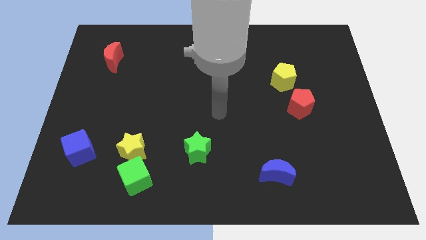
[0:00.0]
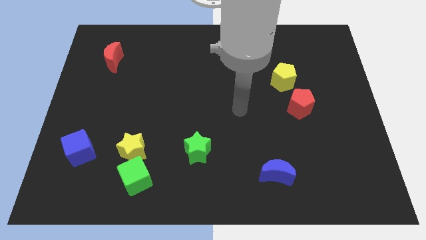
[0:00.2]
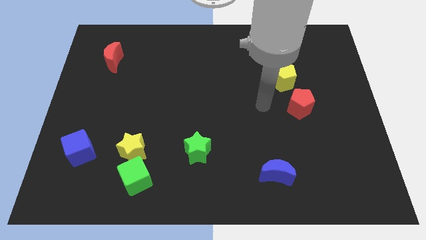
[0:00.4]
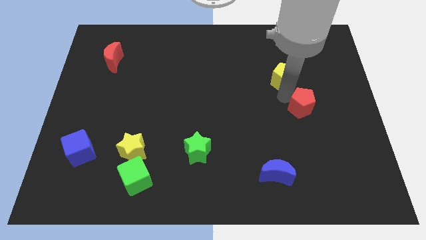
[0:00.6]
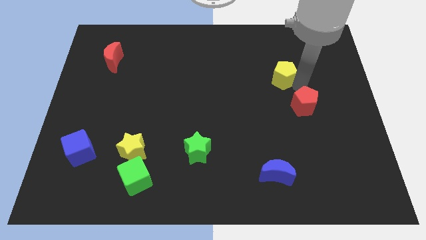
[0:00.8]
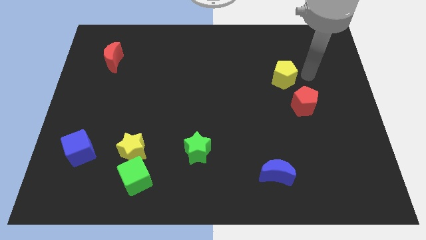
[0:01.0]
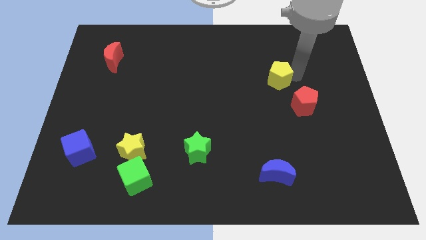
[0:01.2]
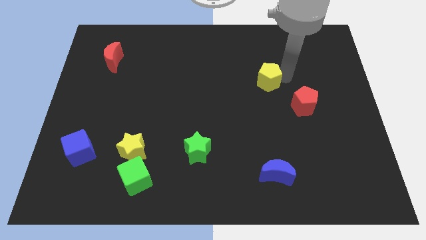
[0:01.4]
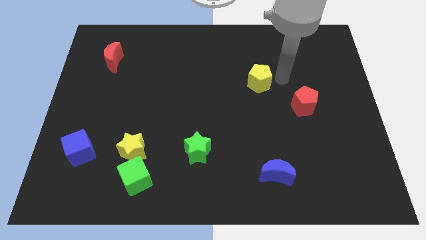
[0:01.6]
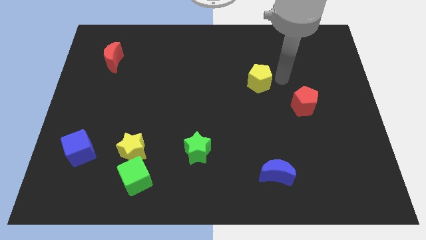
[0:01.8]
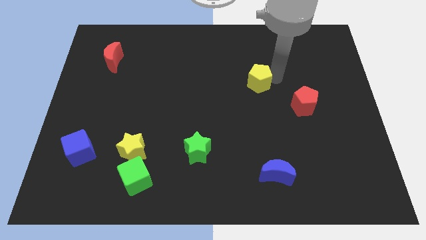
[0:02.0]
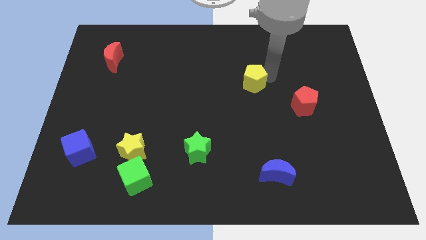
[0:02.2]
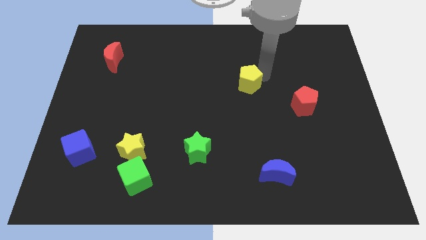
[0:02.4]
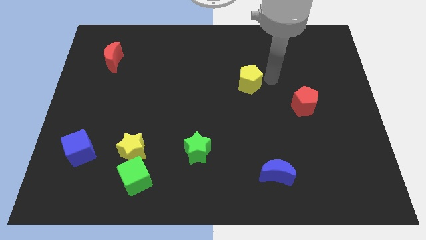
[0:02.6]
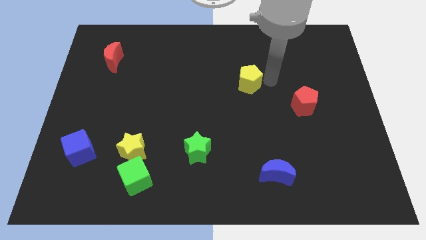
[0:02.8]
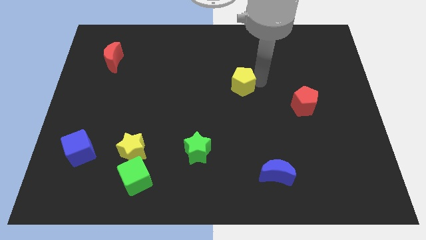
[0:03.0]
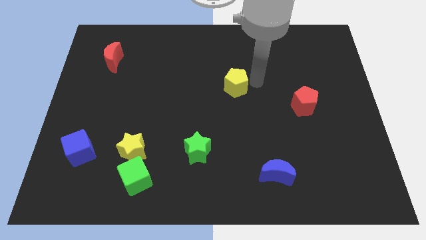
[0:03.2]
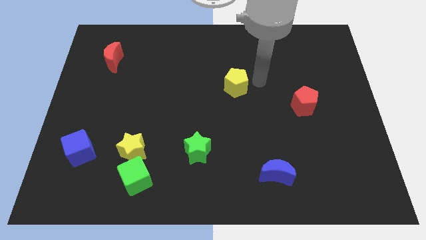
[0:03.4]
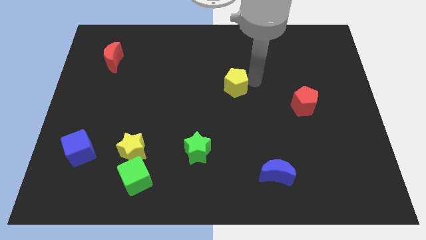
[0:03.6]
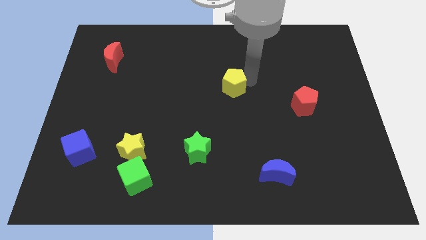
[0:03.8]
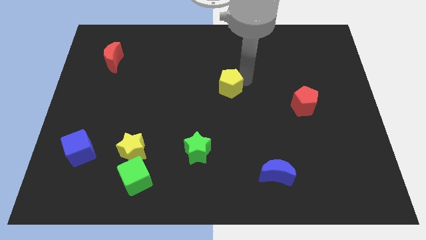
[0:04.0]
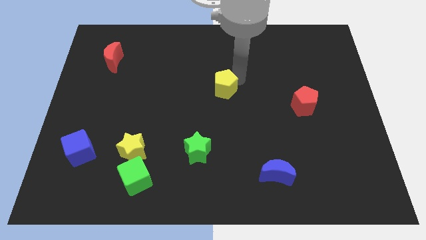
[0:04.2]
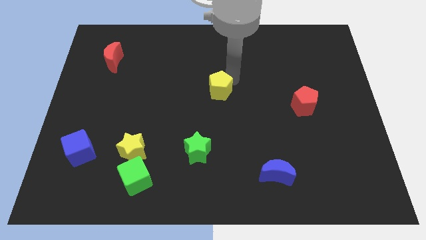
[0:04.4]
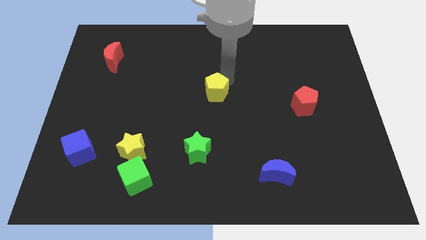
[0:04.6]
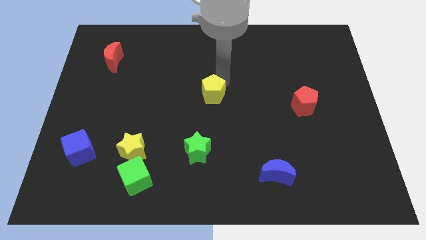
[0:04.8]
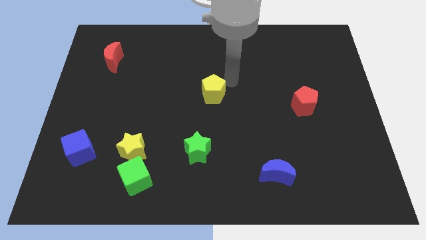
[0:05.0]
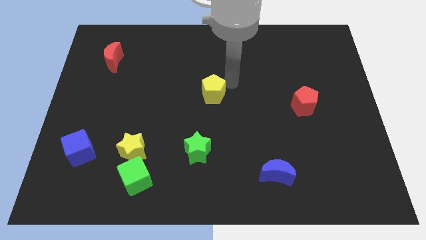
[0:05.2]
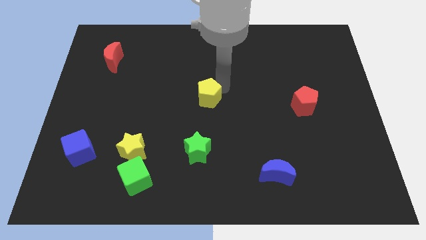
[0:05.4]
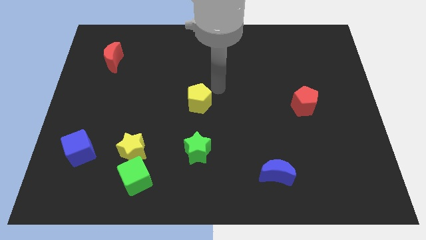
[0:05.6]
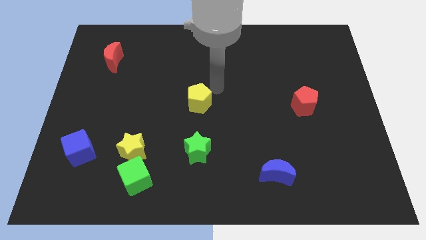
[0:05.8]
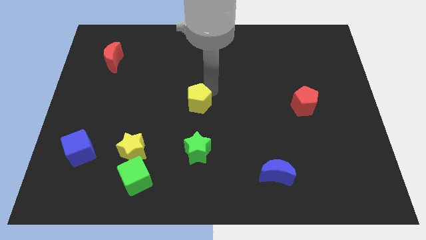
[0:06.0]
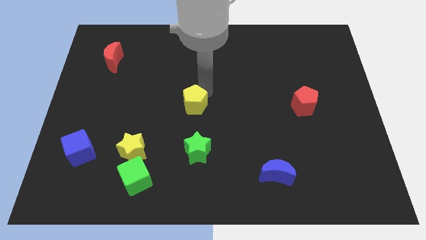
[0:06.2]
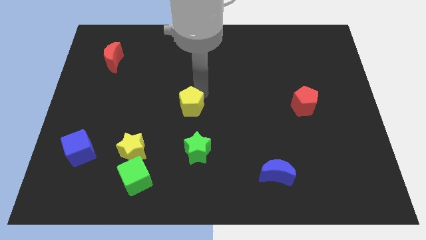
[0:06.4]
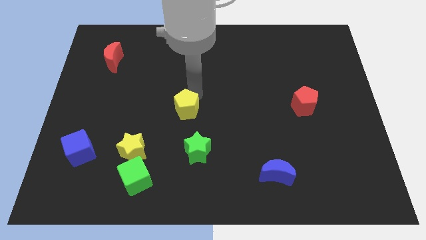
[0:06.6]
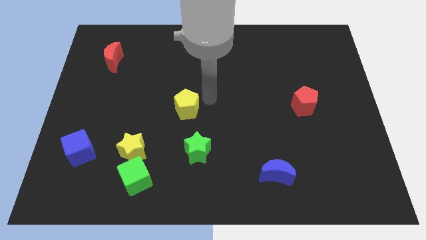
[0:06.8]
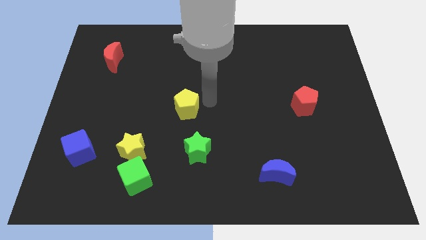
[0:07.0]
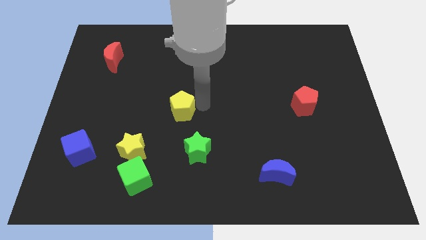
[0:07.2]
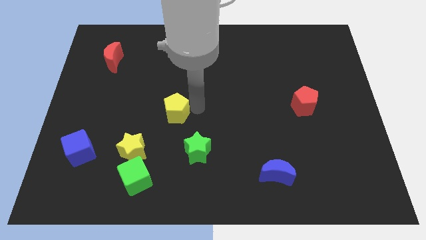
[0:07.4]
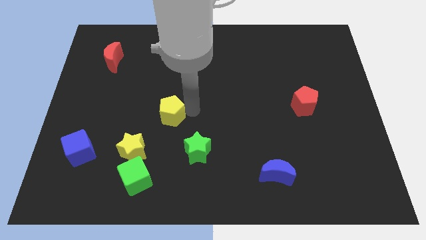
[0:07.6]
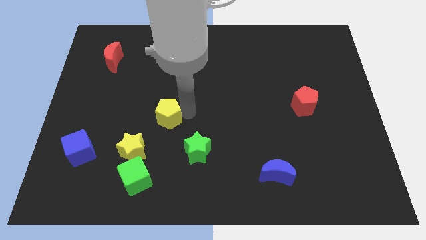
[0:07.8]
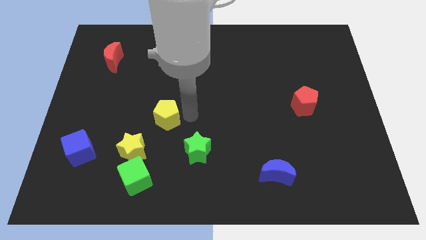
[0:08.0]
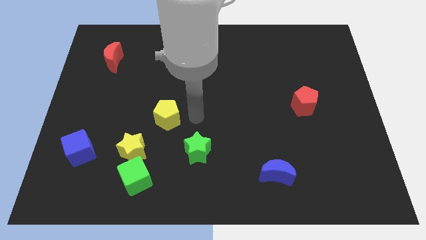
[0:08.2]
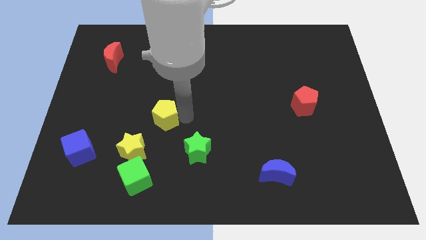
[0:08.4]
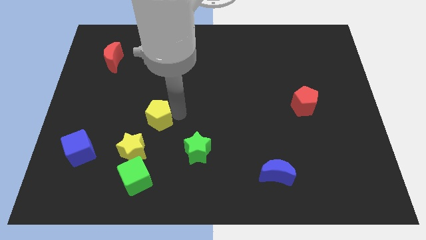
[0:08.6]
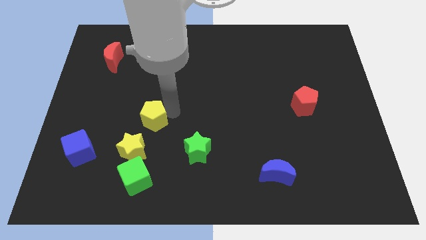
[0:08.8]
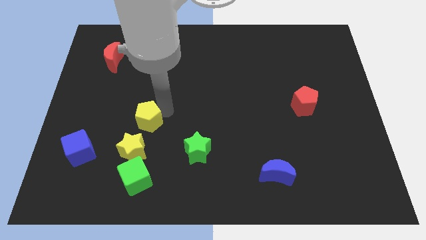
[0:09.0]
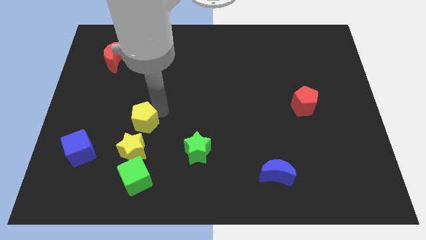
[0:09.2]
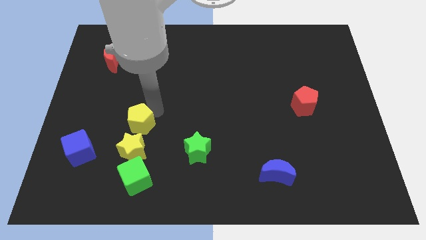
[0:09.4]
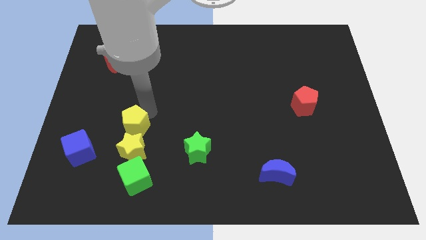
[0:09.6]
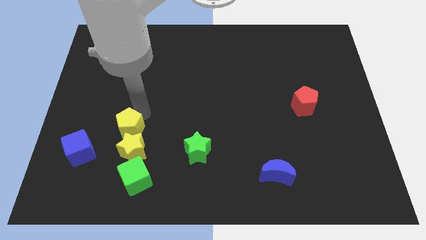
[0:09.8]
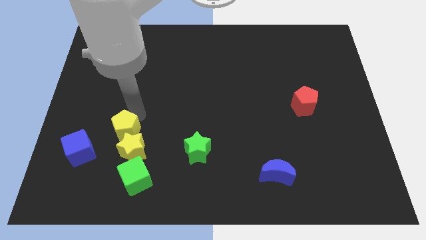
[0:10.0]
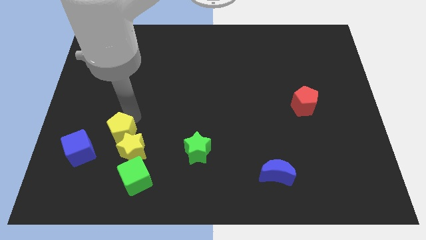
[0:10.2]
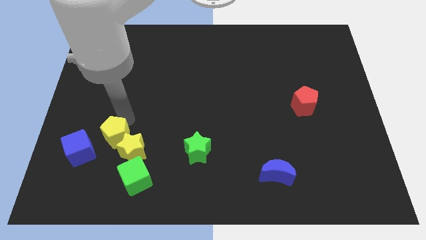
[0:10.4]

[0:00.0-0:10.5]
push the yellow pentagon to the top left side of the green cube
